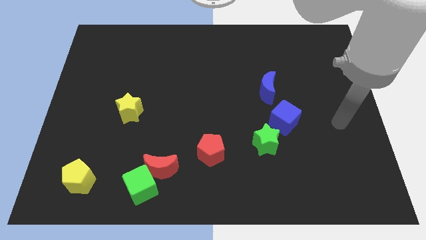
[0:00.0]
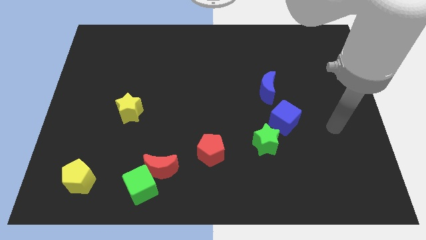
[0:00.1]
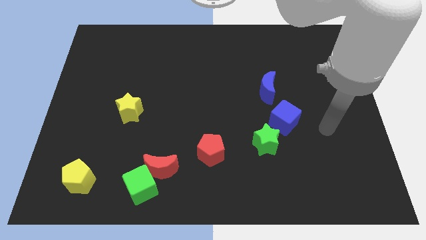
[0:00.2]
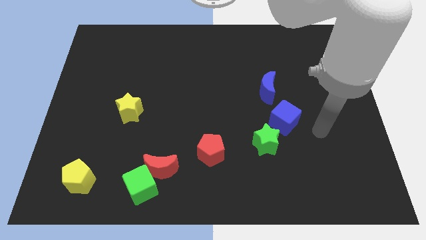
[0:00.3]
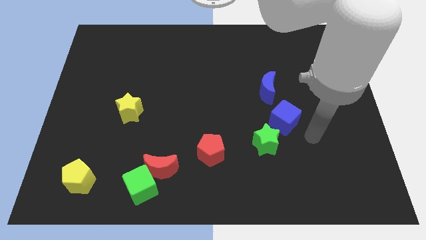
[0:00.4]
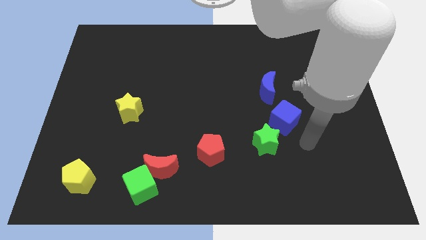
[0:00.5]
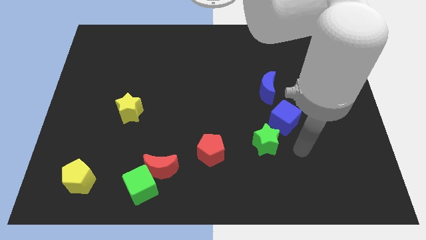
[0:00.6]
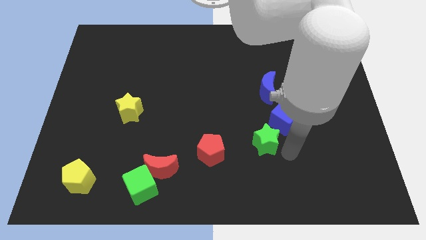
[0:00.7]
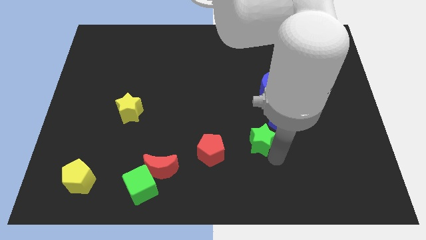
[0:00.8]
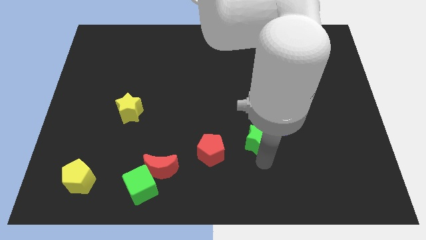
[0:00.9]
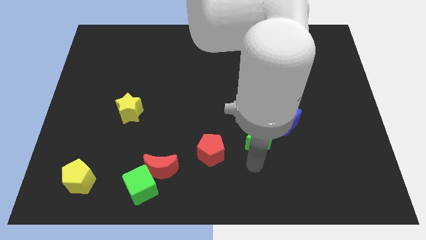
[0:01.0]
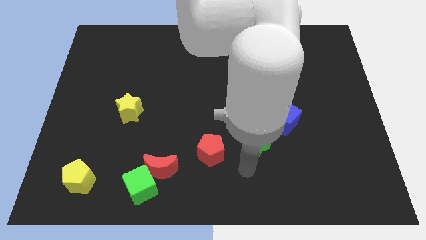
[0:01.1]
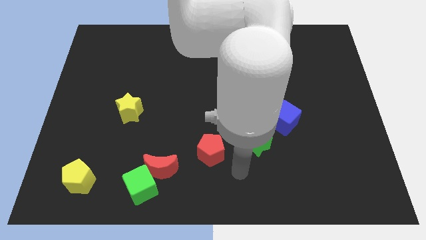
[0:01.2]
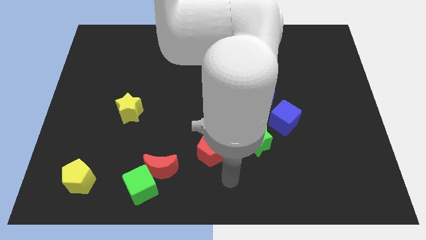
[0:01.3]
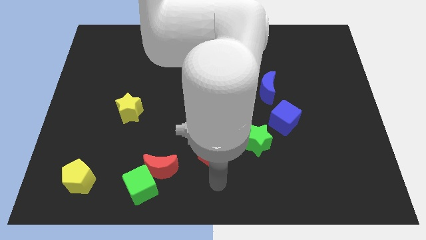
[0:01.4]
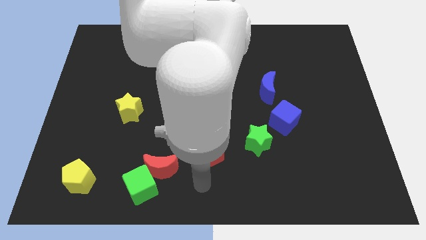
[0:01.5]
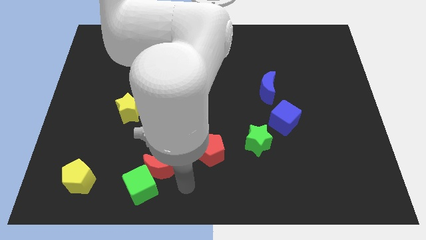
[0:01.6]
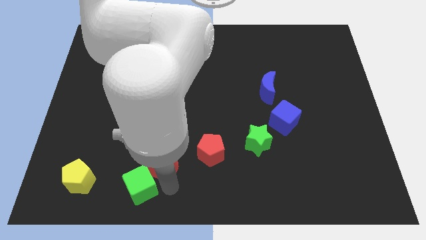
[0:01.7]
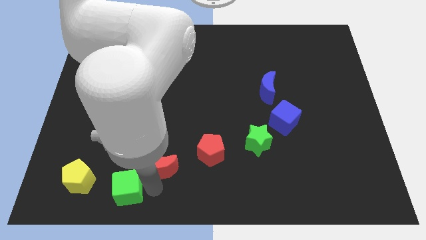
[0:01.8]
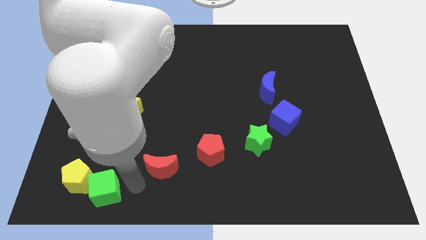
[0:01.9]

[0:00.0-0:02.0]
move the red moon away from the green cube

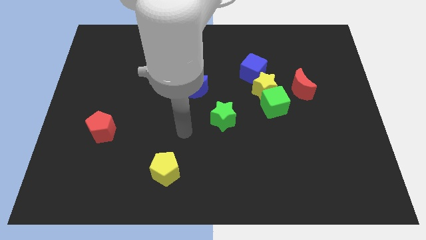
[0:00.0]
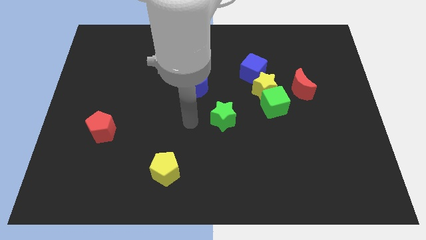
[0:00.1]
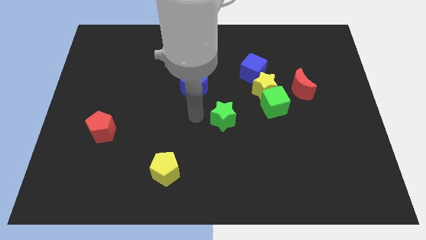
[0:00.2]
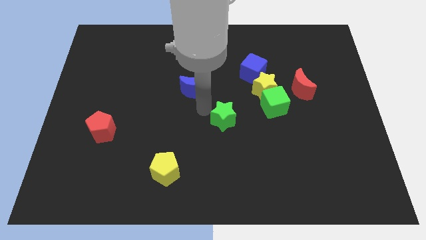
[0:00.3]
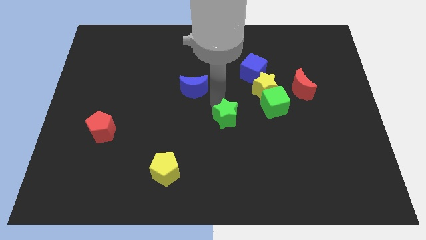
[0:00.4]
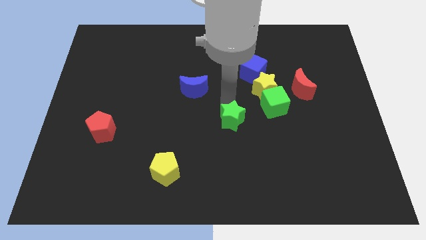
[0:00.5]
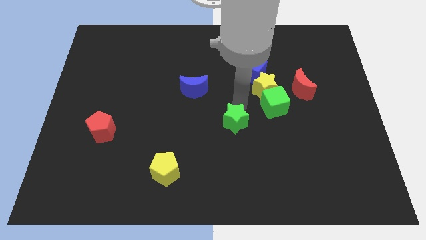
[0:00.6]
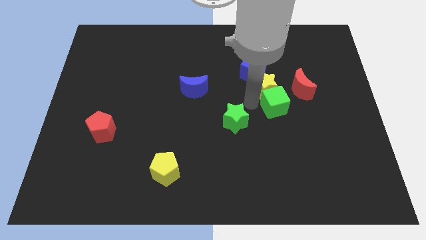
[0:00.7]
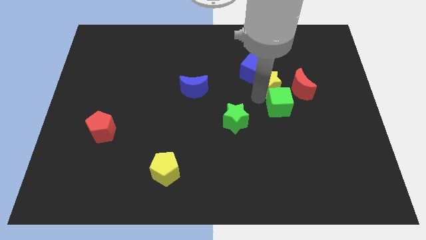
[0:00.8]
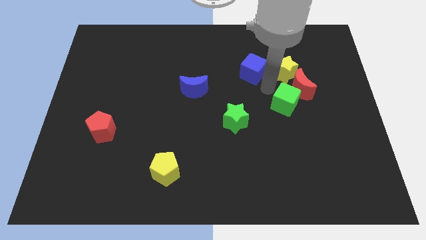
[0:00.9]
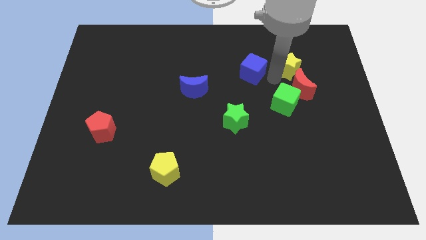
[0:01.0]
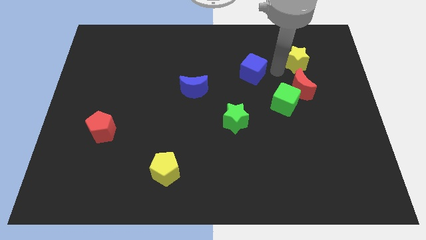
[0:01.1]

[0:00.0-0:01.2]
separate the blue cube from the yellow star

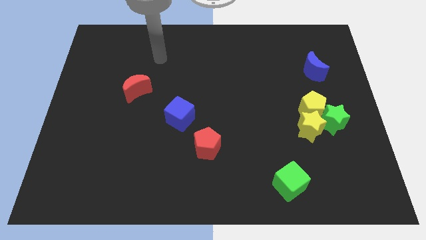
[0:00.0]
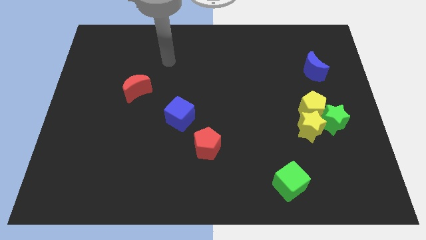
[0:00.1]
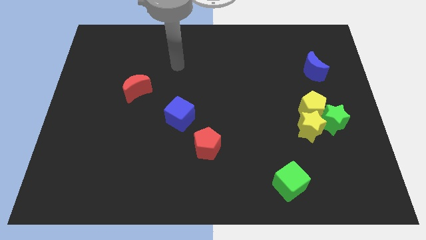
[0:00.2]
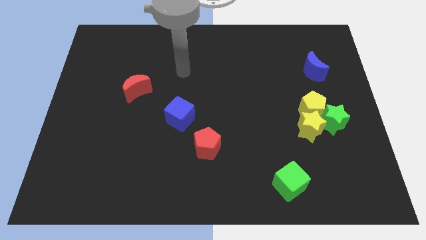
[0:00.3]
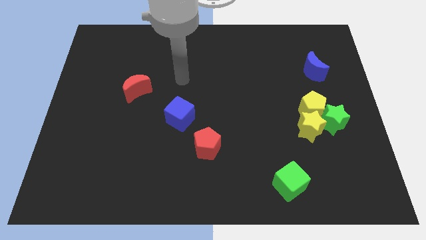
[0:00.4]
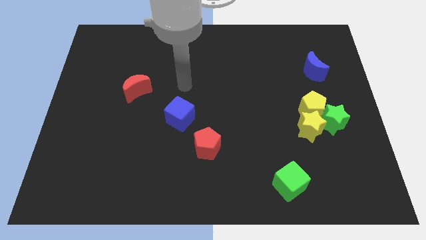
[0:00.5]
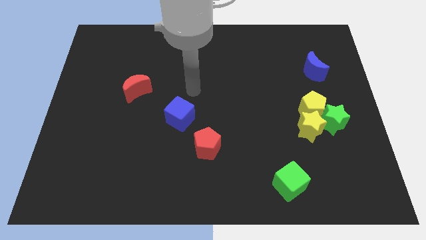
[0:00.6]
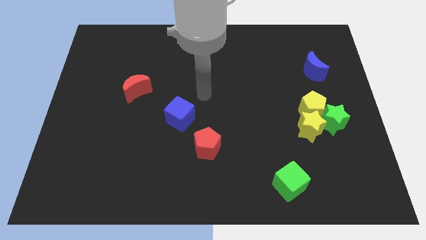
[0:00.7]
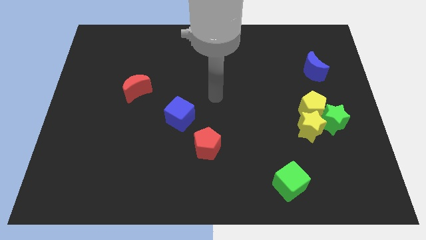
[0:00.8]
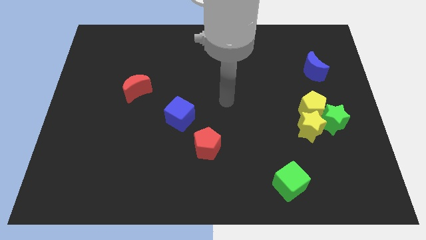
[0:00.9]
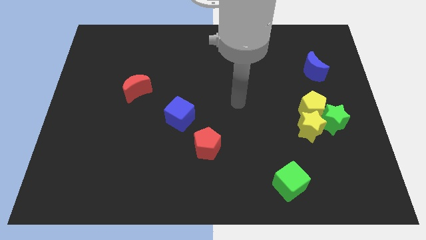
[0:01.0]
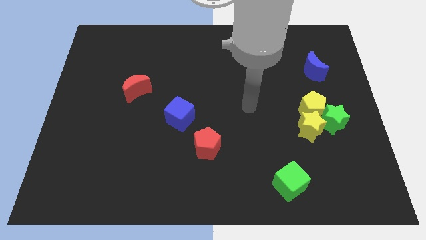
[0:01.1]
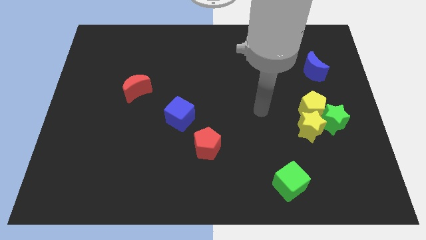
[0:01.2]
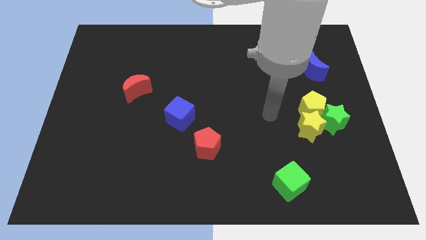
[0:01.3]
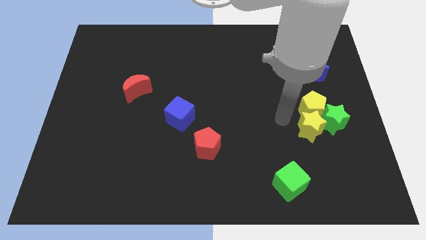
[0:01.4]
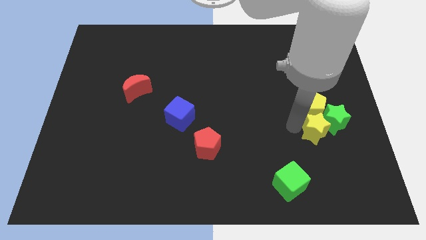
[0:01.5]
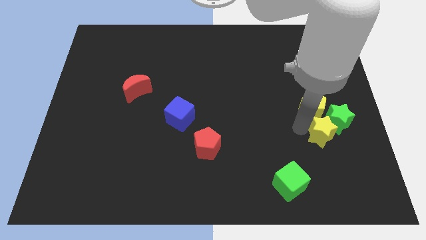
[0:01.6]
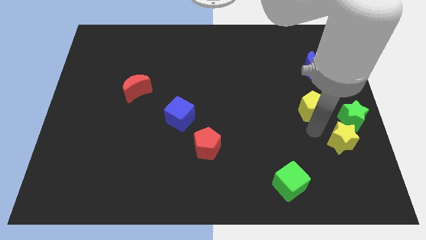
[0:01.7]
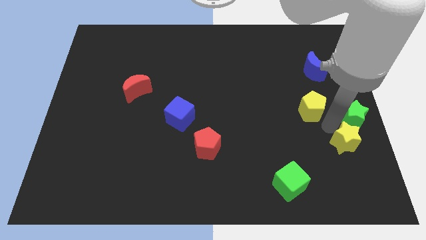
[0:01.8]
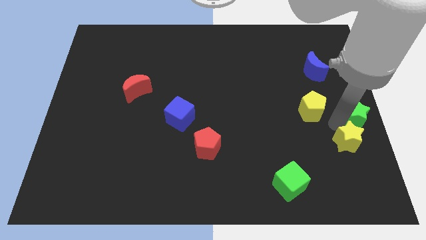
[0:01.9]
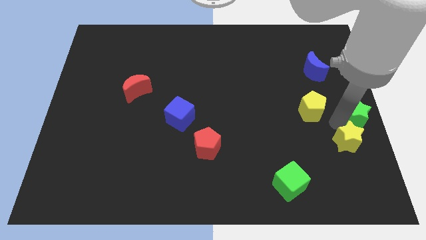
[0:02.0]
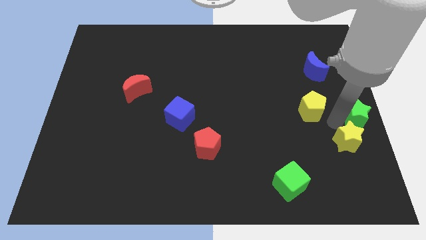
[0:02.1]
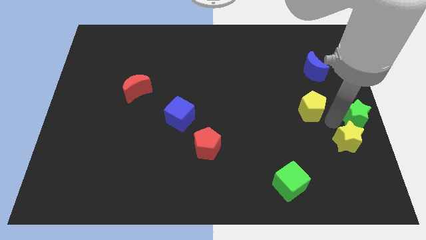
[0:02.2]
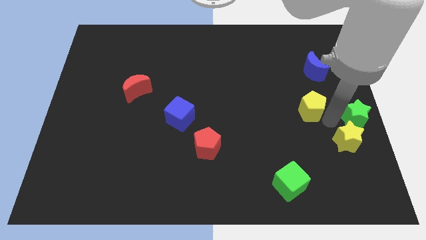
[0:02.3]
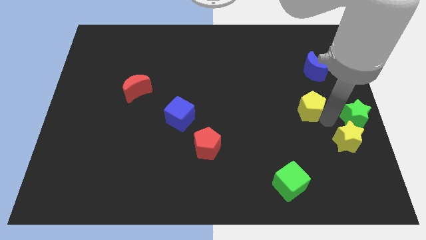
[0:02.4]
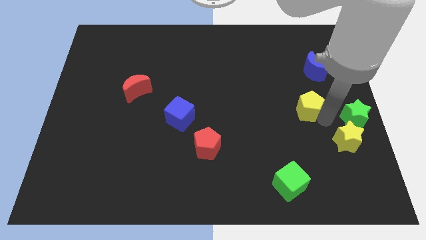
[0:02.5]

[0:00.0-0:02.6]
move the yellow pentagon away from the green star and yellow star

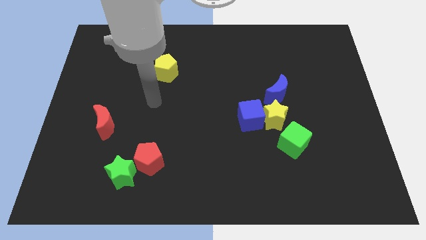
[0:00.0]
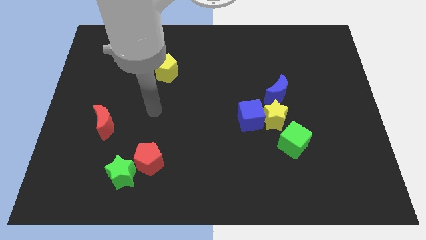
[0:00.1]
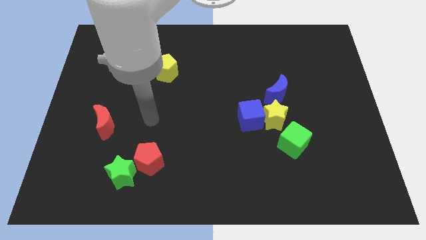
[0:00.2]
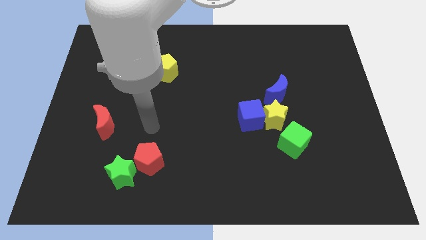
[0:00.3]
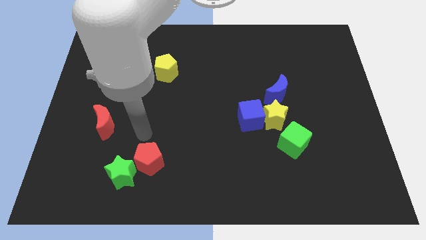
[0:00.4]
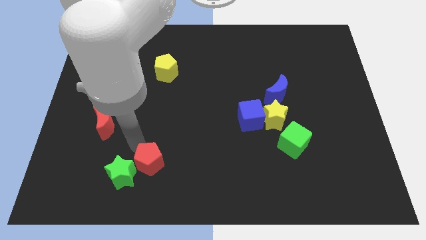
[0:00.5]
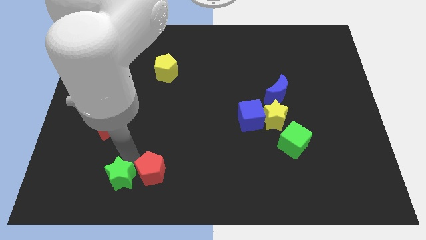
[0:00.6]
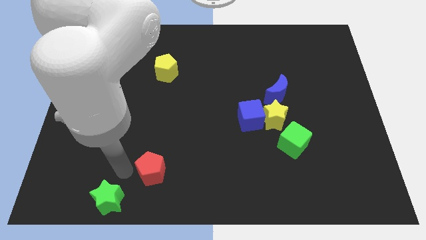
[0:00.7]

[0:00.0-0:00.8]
separate the red pentagon from the green star

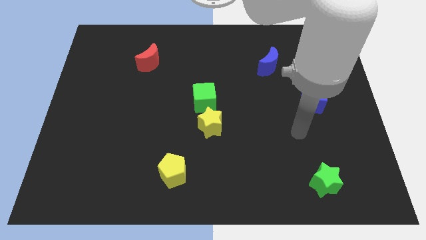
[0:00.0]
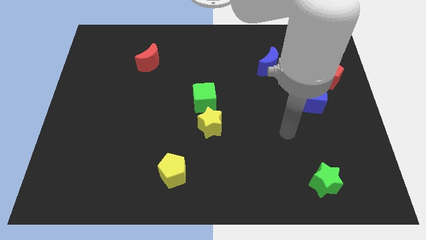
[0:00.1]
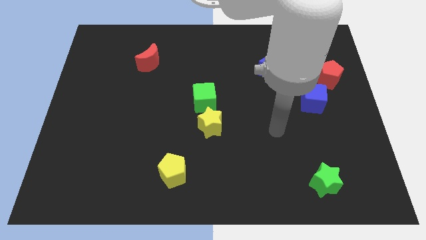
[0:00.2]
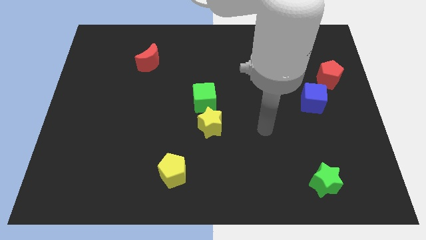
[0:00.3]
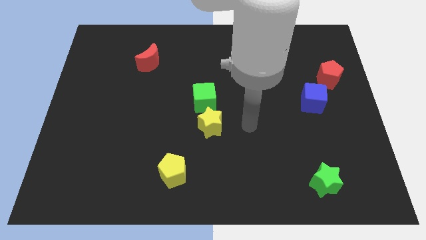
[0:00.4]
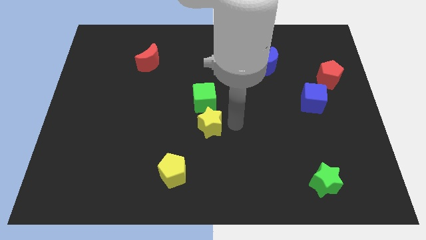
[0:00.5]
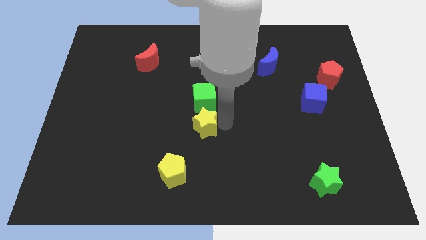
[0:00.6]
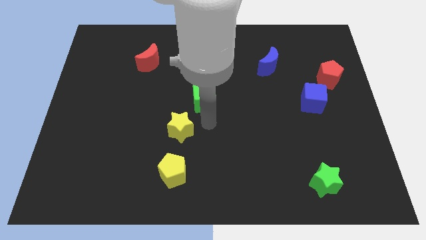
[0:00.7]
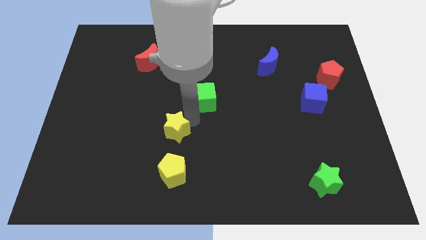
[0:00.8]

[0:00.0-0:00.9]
move the green cube away from the yellow star

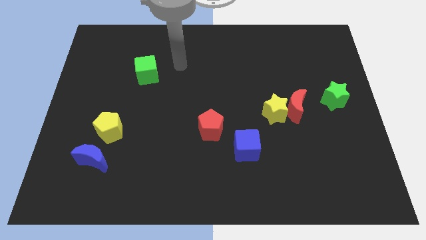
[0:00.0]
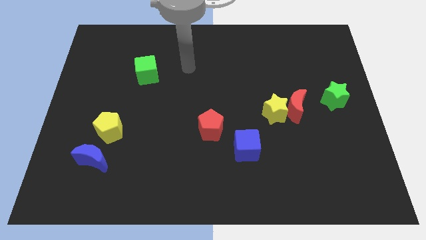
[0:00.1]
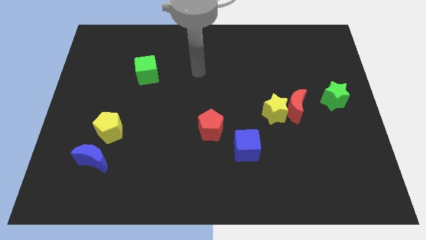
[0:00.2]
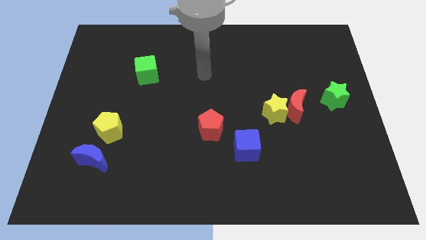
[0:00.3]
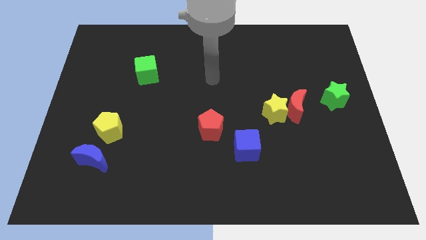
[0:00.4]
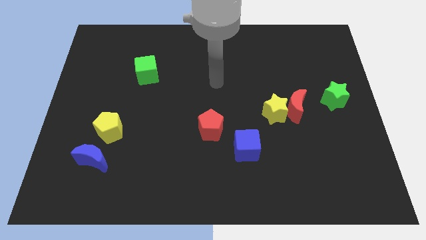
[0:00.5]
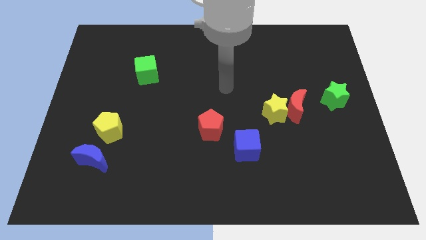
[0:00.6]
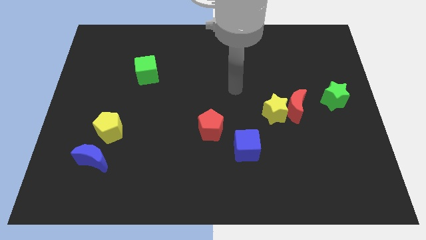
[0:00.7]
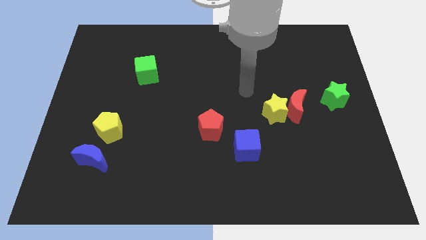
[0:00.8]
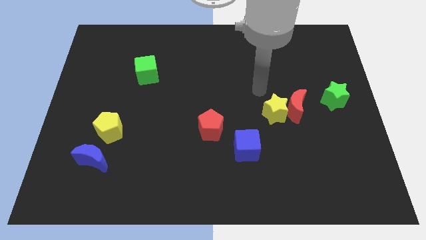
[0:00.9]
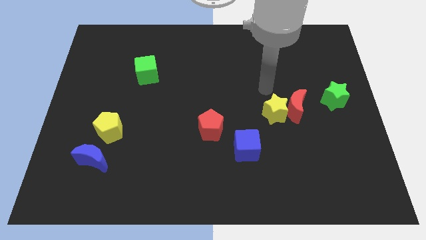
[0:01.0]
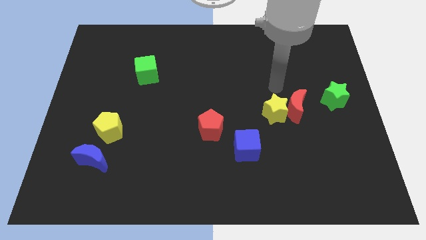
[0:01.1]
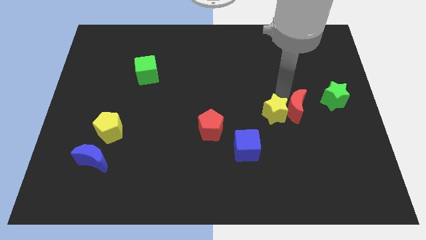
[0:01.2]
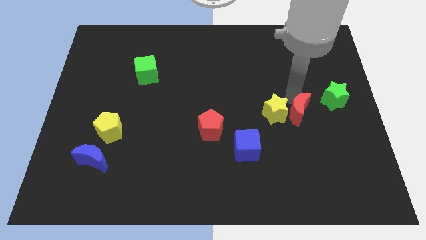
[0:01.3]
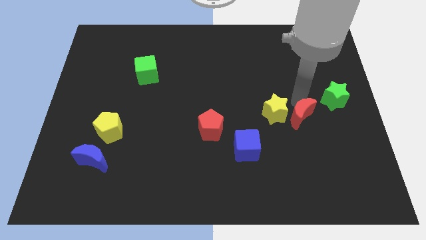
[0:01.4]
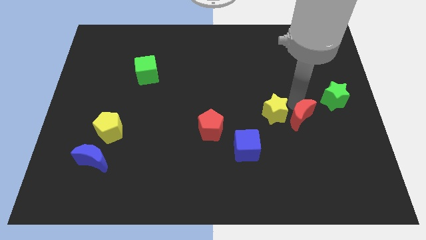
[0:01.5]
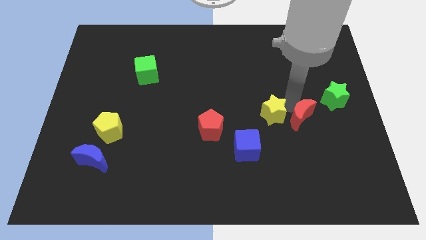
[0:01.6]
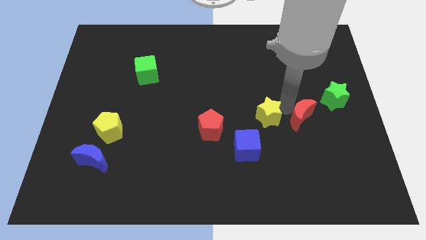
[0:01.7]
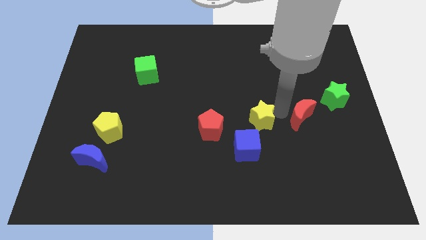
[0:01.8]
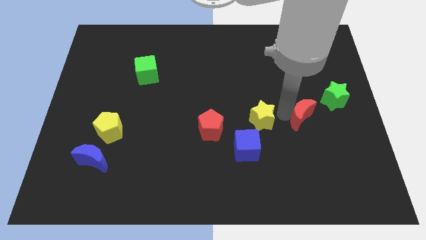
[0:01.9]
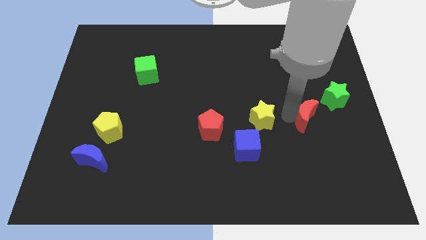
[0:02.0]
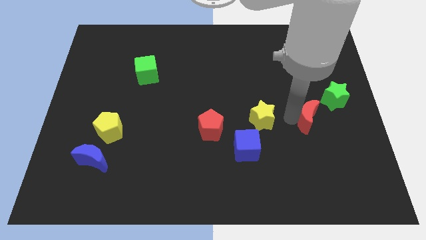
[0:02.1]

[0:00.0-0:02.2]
separate the yellow star from the red moon
